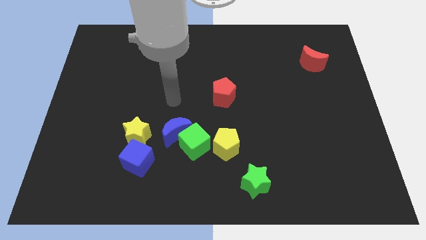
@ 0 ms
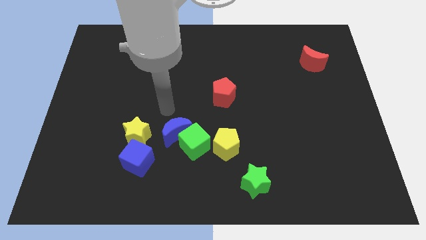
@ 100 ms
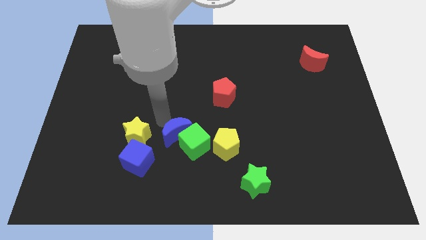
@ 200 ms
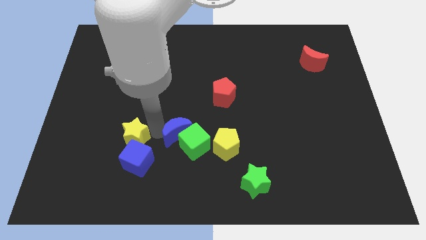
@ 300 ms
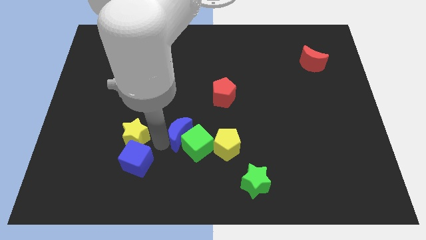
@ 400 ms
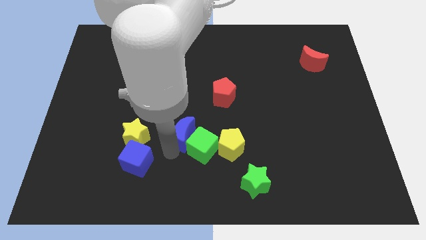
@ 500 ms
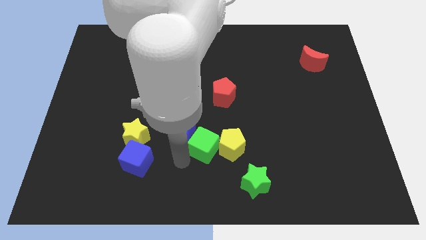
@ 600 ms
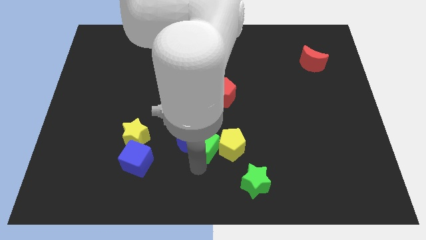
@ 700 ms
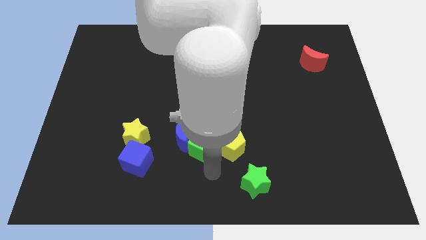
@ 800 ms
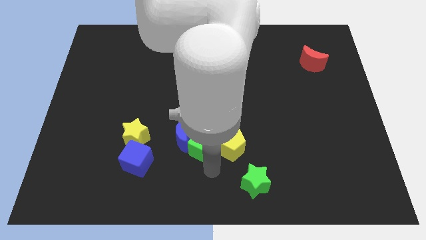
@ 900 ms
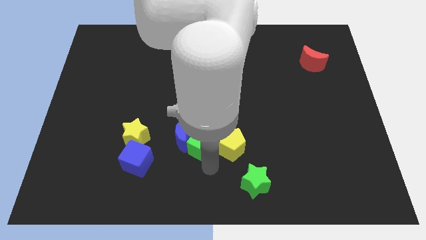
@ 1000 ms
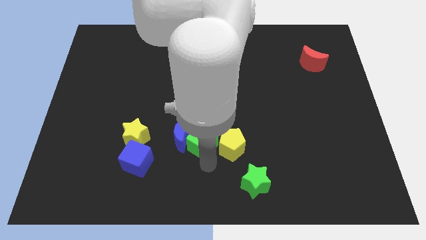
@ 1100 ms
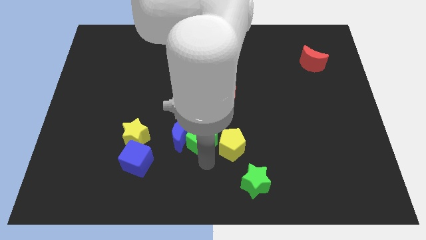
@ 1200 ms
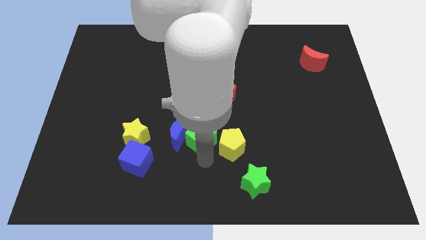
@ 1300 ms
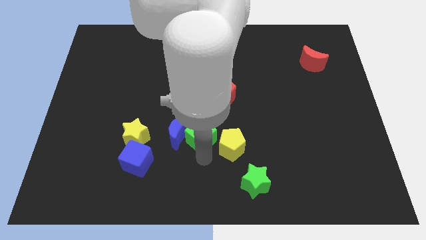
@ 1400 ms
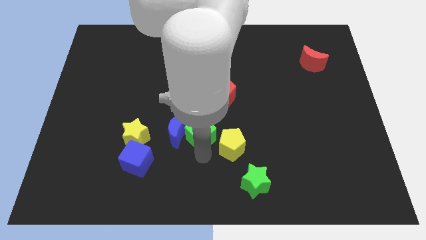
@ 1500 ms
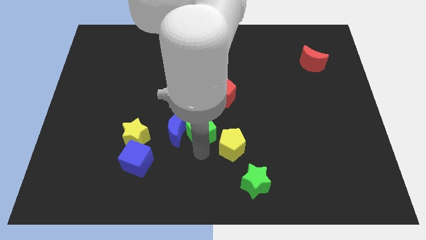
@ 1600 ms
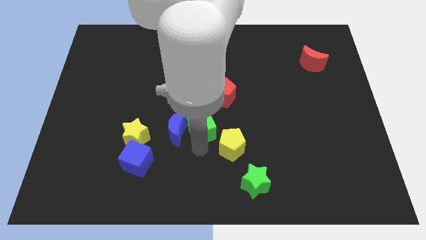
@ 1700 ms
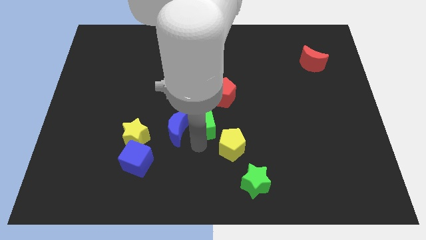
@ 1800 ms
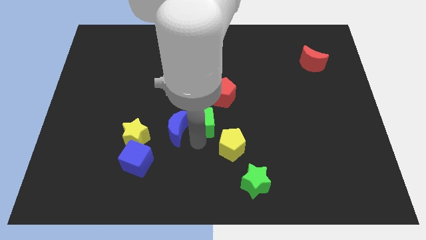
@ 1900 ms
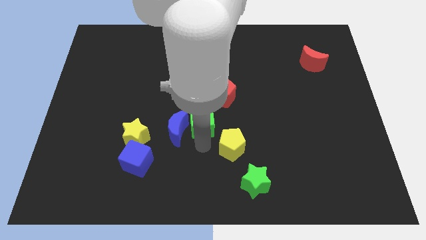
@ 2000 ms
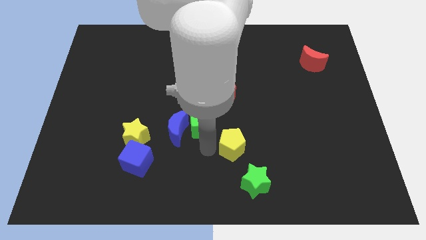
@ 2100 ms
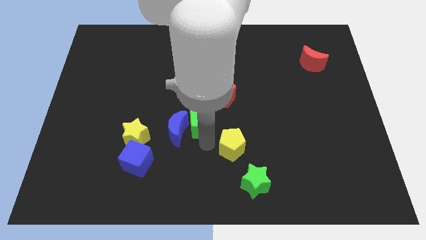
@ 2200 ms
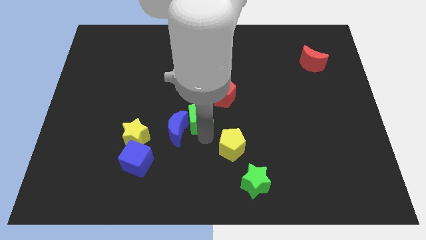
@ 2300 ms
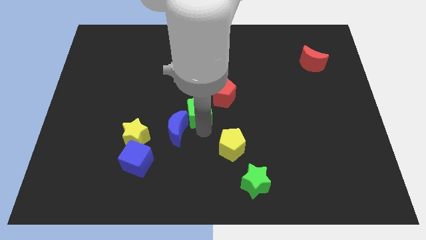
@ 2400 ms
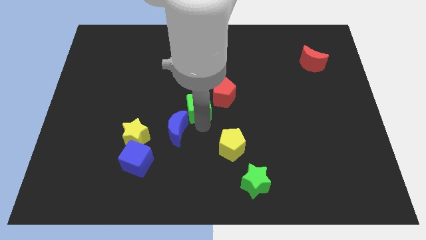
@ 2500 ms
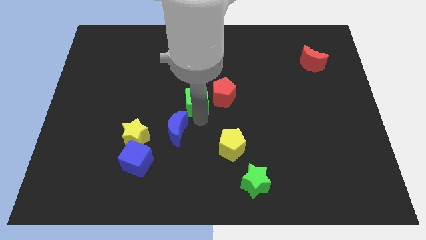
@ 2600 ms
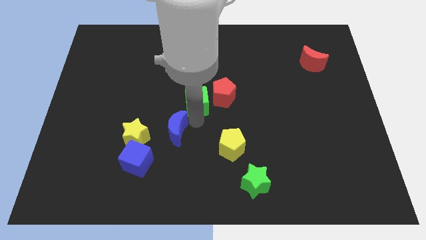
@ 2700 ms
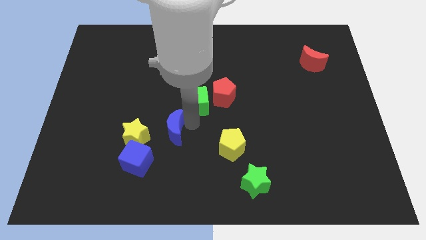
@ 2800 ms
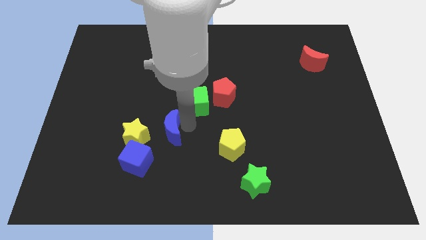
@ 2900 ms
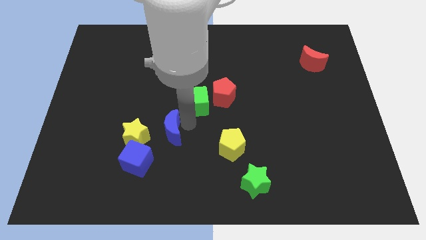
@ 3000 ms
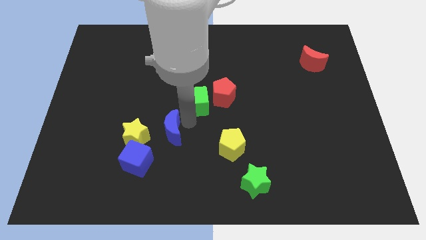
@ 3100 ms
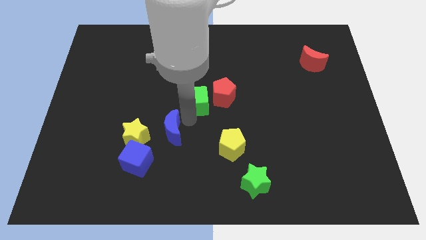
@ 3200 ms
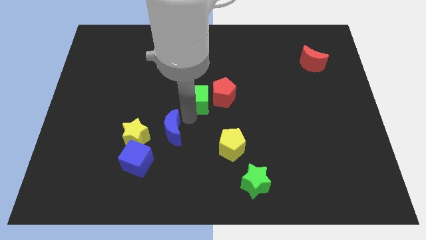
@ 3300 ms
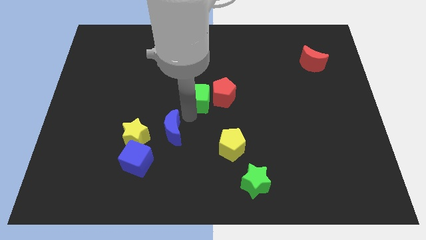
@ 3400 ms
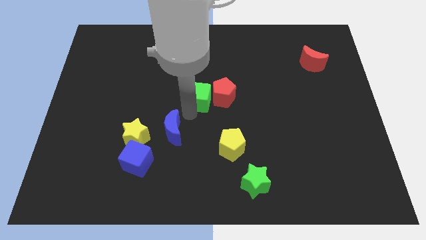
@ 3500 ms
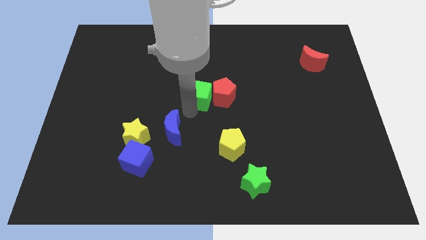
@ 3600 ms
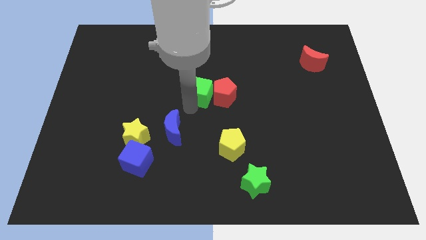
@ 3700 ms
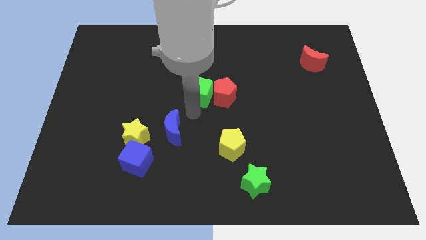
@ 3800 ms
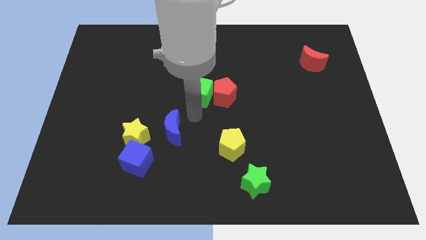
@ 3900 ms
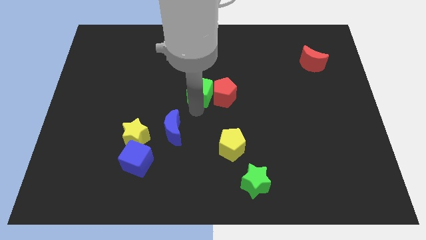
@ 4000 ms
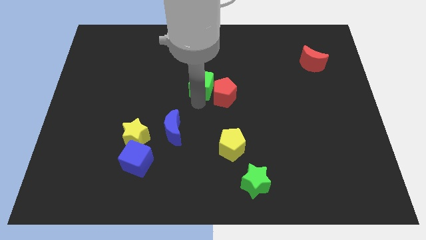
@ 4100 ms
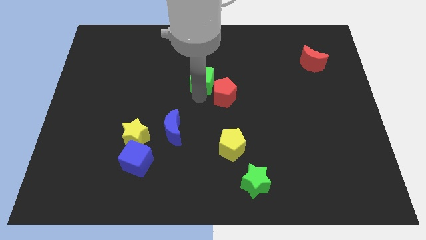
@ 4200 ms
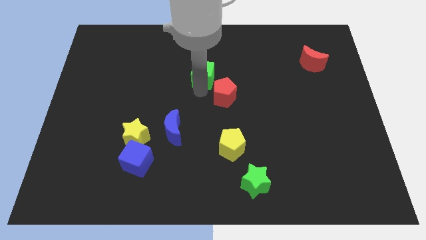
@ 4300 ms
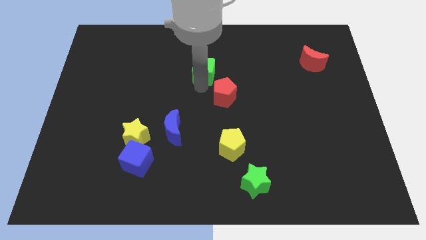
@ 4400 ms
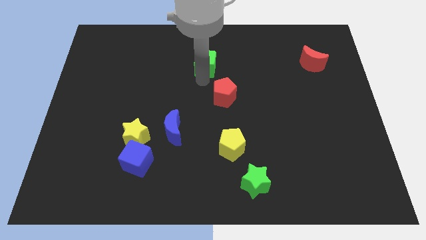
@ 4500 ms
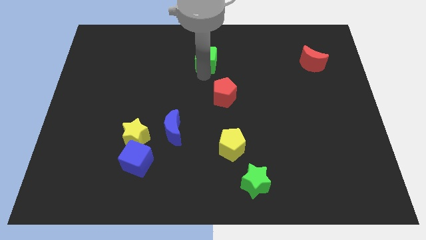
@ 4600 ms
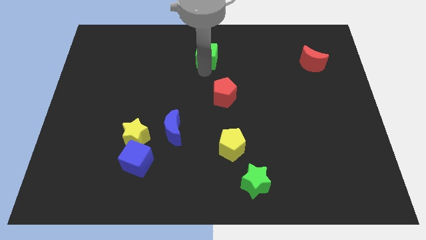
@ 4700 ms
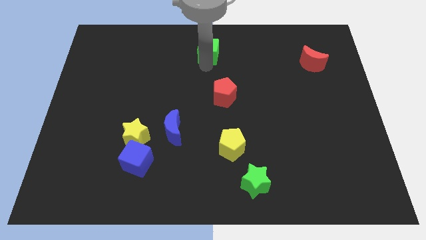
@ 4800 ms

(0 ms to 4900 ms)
move the green cube to the towards your base

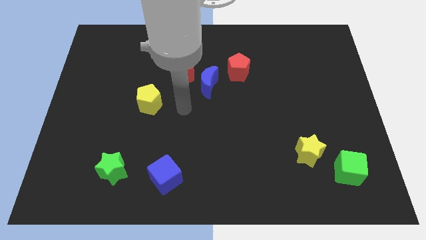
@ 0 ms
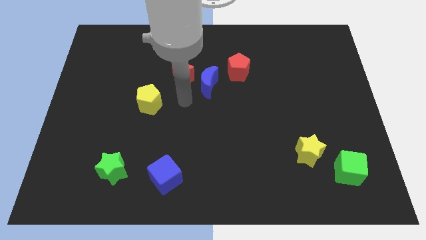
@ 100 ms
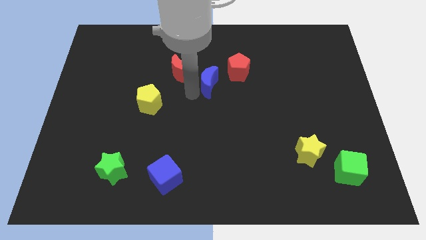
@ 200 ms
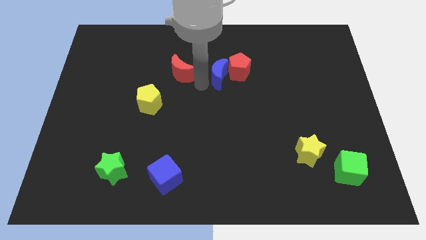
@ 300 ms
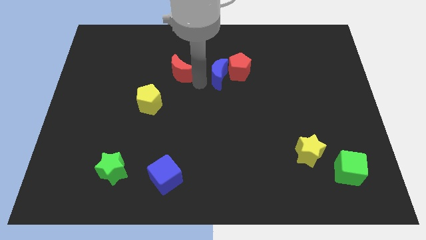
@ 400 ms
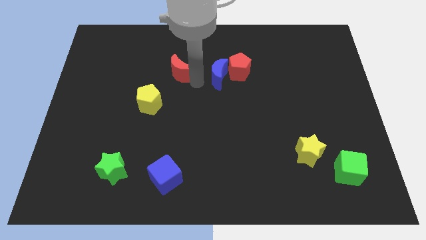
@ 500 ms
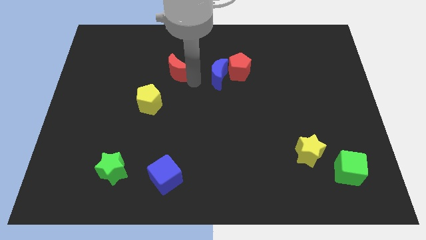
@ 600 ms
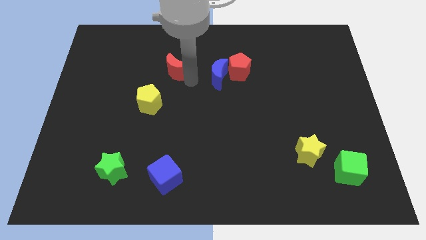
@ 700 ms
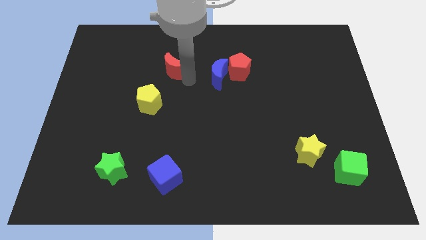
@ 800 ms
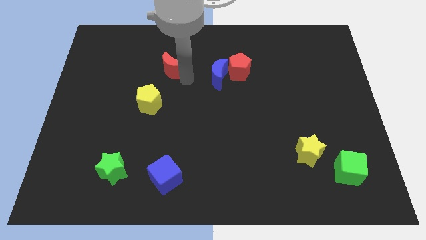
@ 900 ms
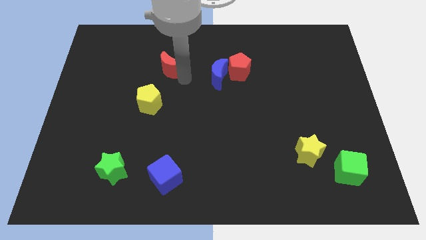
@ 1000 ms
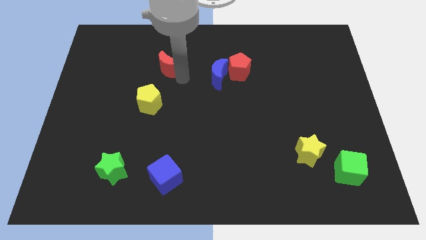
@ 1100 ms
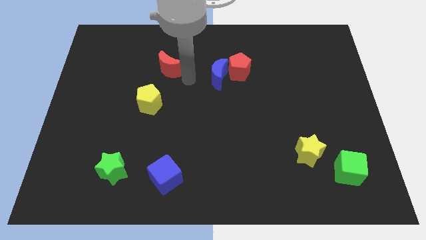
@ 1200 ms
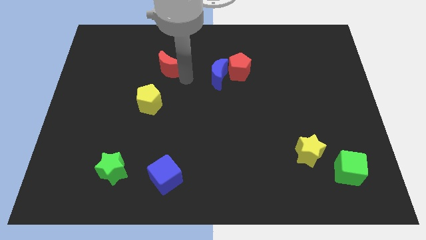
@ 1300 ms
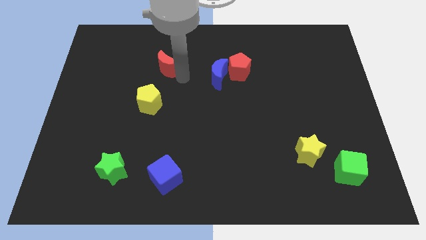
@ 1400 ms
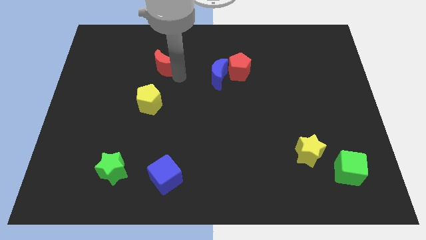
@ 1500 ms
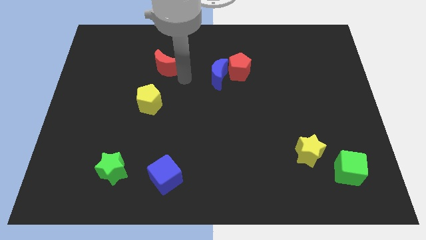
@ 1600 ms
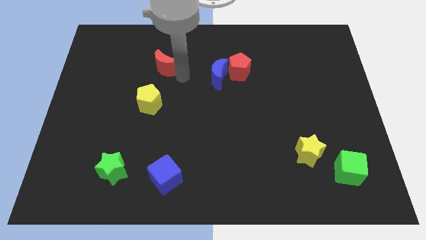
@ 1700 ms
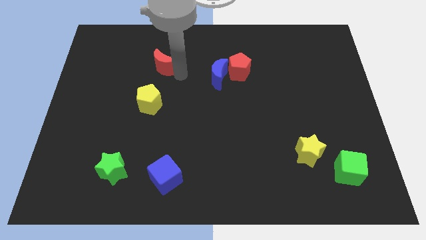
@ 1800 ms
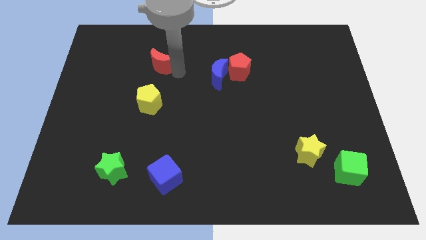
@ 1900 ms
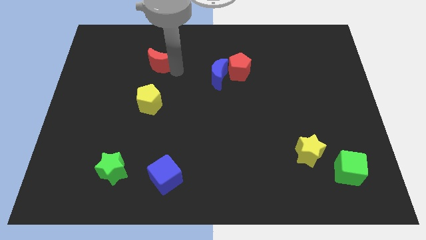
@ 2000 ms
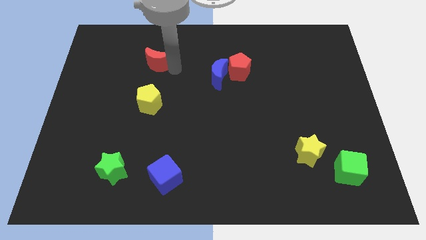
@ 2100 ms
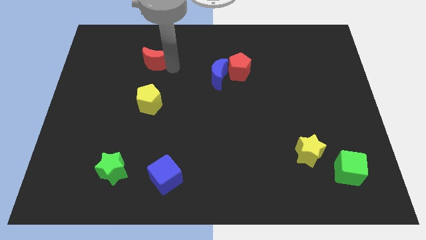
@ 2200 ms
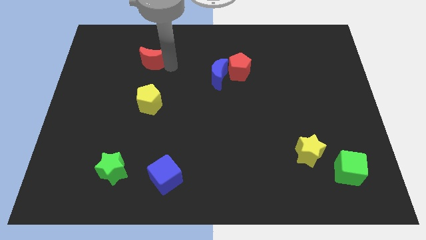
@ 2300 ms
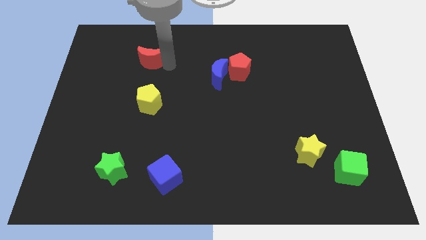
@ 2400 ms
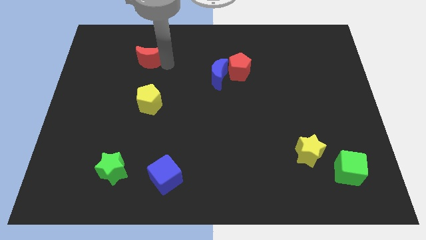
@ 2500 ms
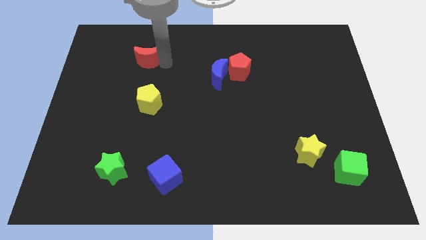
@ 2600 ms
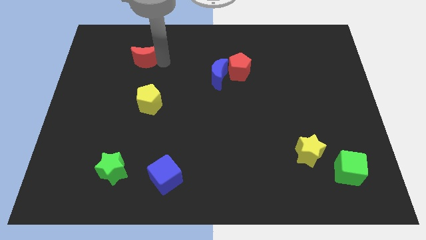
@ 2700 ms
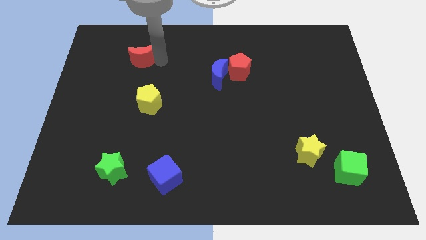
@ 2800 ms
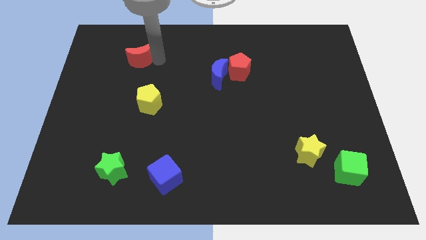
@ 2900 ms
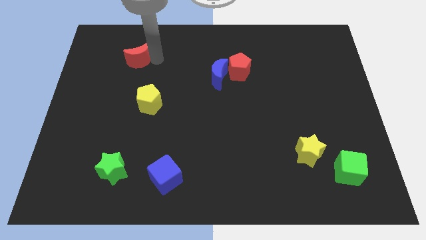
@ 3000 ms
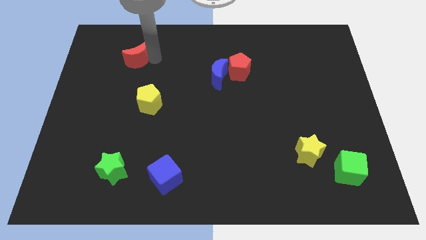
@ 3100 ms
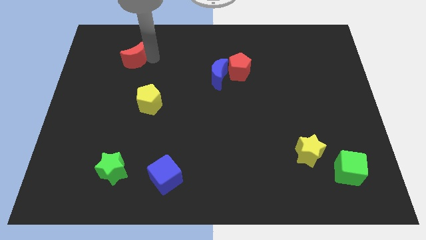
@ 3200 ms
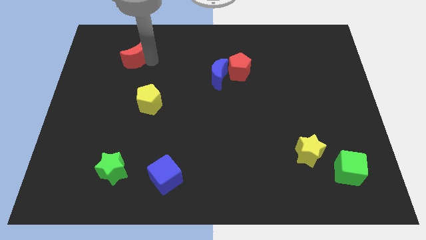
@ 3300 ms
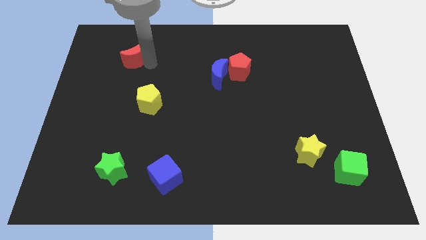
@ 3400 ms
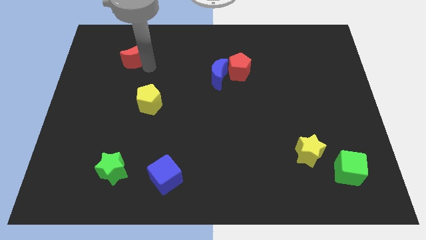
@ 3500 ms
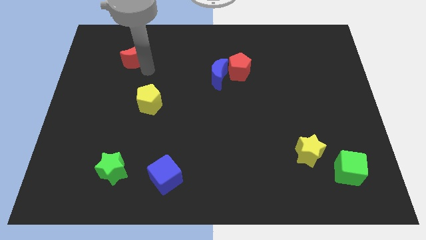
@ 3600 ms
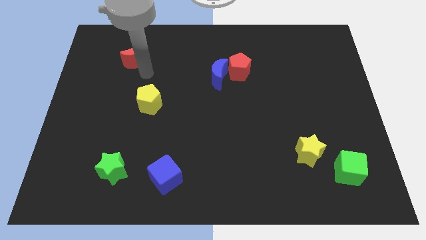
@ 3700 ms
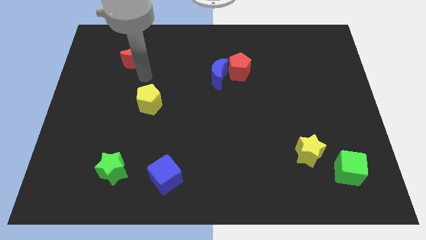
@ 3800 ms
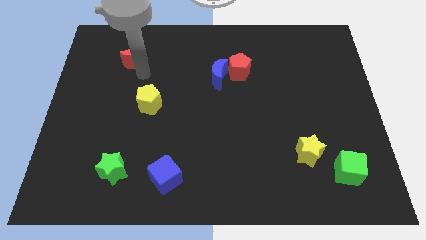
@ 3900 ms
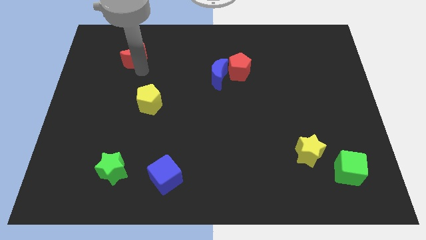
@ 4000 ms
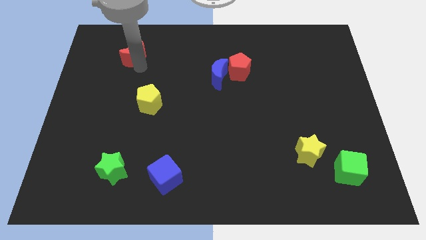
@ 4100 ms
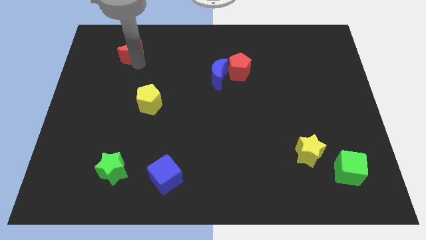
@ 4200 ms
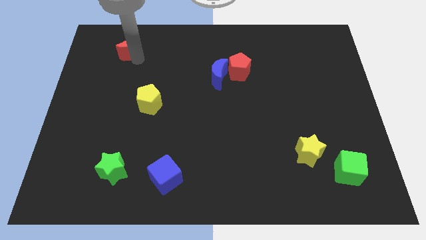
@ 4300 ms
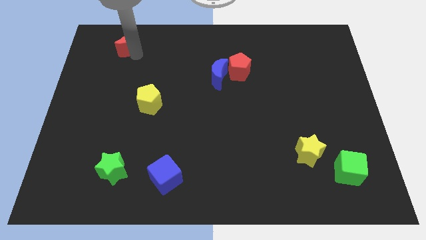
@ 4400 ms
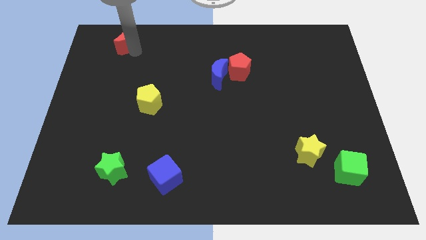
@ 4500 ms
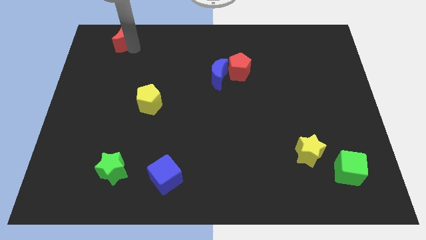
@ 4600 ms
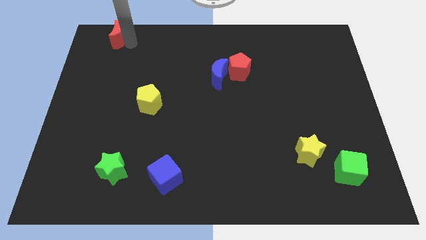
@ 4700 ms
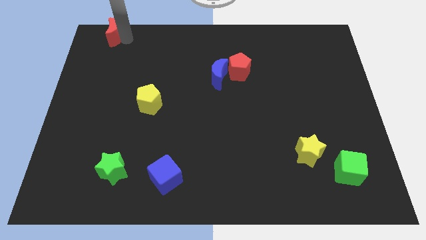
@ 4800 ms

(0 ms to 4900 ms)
slide the red moon to the top left
